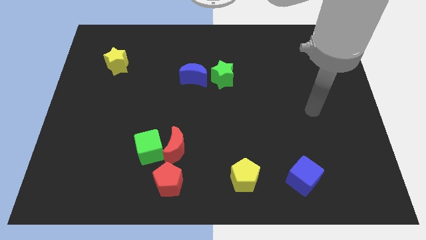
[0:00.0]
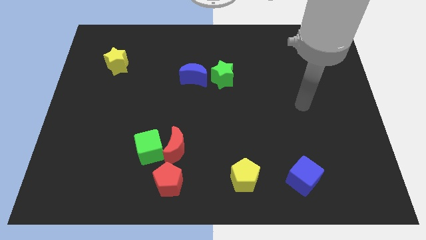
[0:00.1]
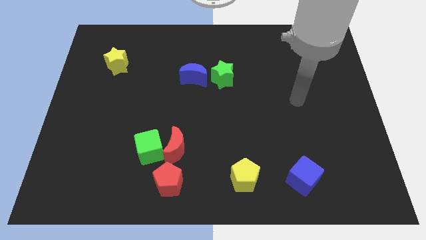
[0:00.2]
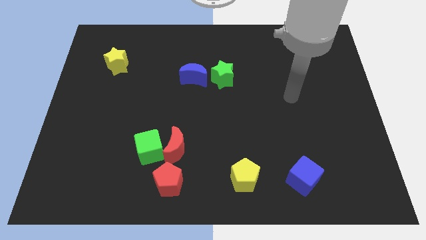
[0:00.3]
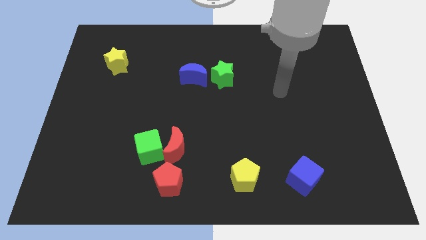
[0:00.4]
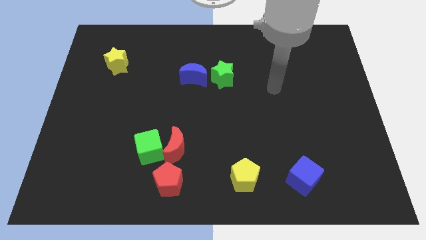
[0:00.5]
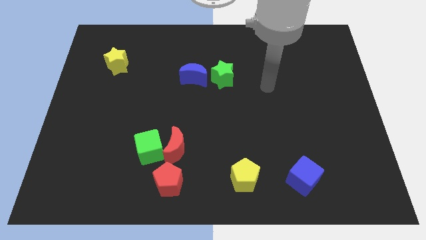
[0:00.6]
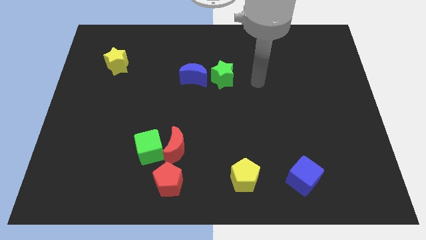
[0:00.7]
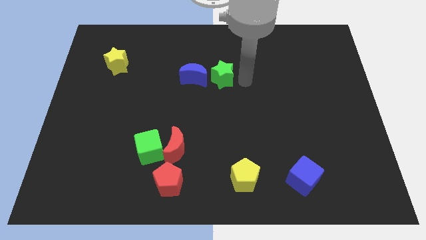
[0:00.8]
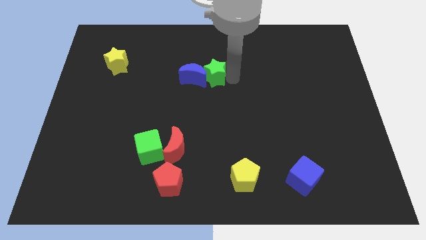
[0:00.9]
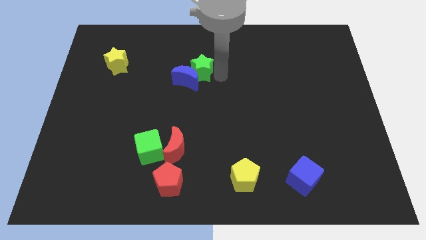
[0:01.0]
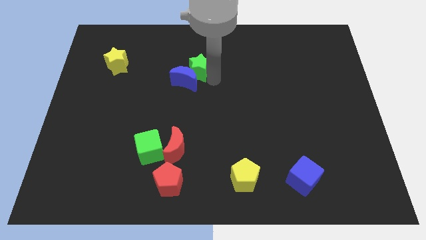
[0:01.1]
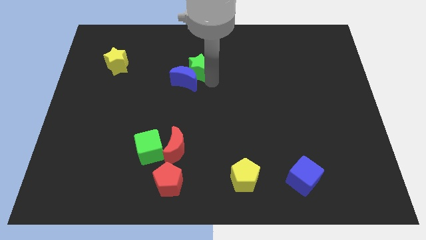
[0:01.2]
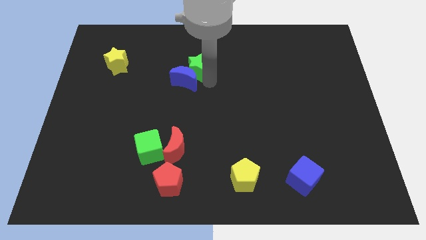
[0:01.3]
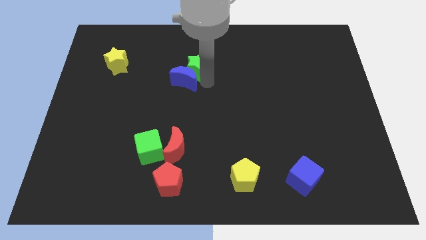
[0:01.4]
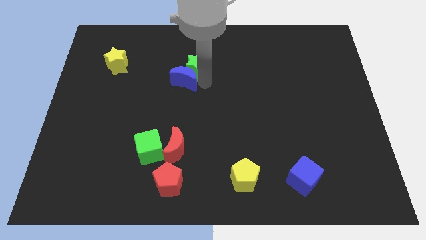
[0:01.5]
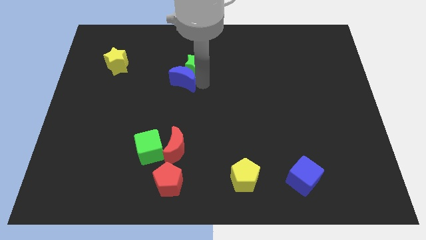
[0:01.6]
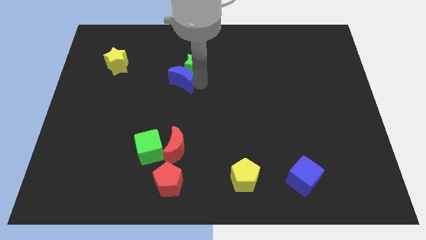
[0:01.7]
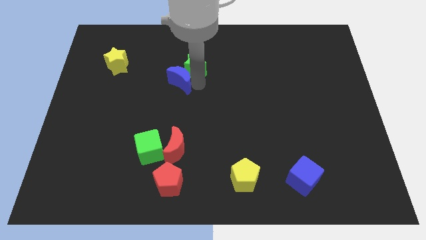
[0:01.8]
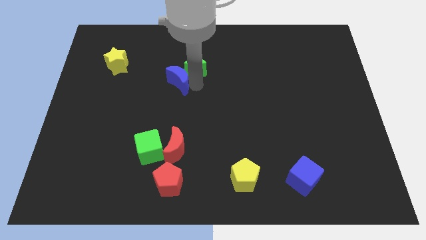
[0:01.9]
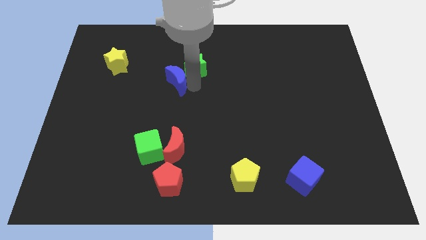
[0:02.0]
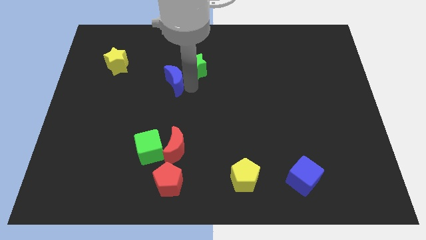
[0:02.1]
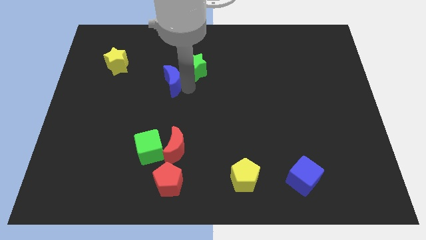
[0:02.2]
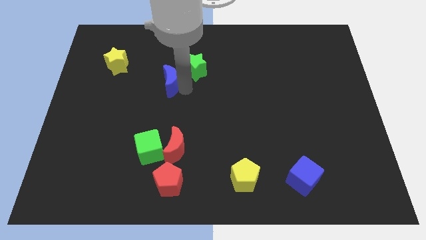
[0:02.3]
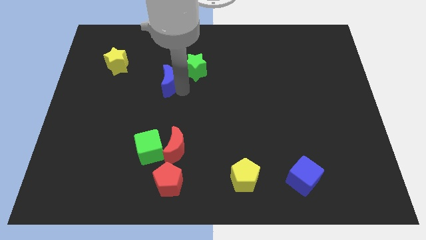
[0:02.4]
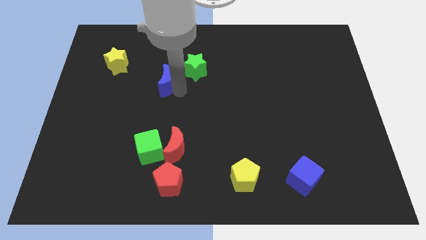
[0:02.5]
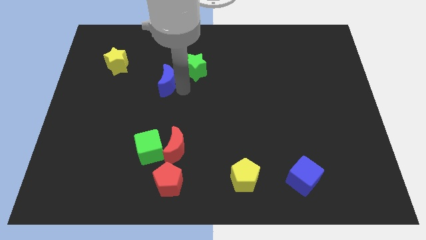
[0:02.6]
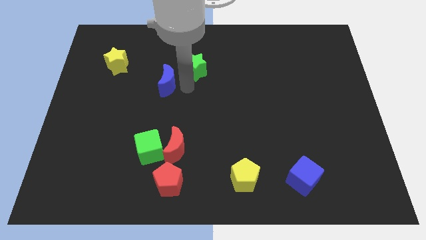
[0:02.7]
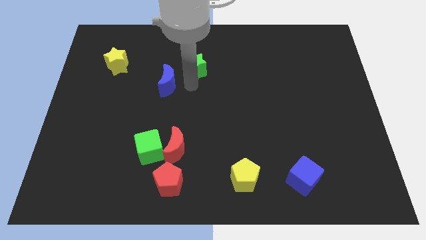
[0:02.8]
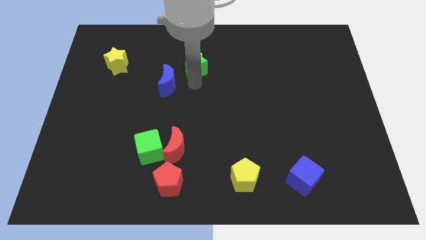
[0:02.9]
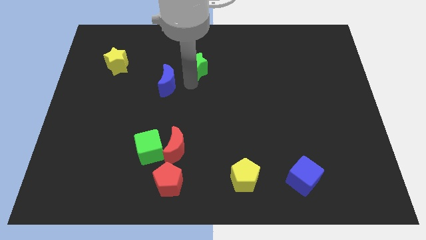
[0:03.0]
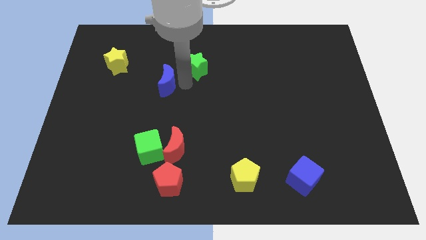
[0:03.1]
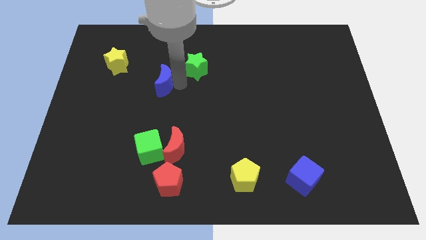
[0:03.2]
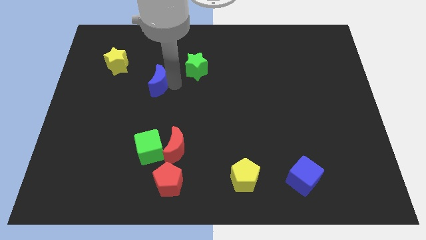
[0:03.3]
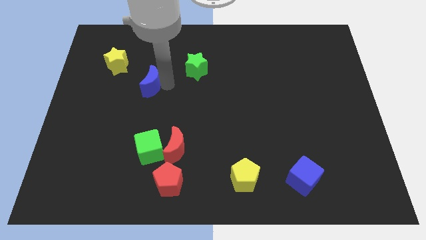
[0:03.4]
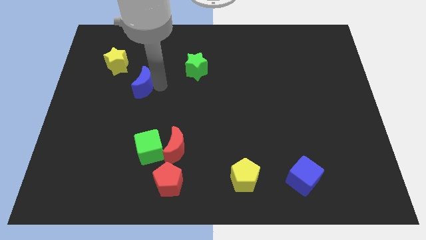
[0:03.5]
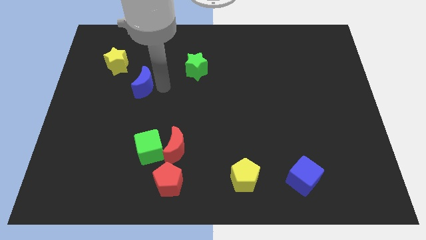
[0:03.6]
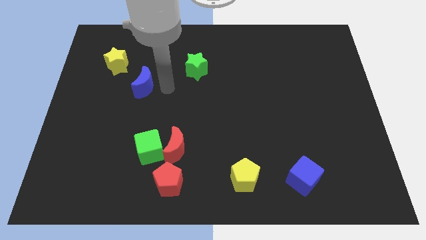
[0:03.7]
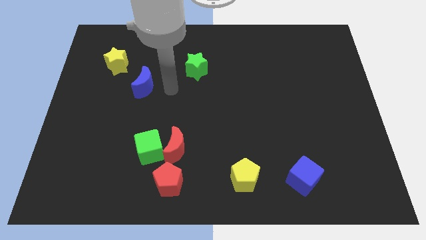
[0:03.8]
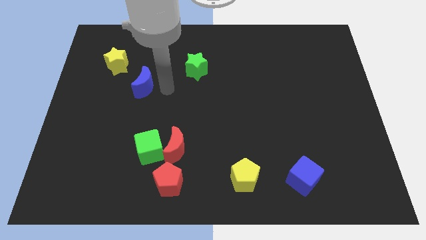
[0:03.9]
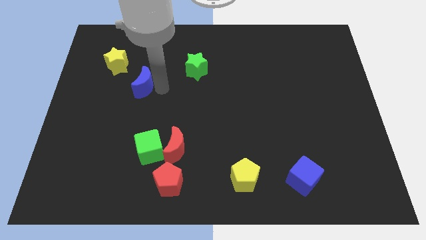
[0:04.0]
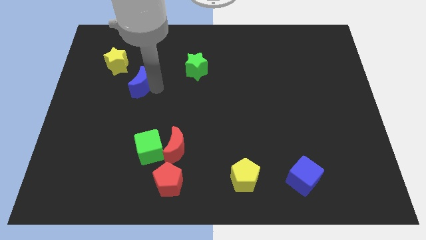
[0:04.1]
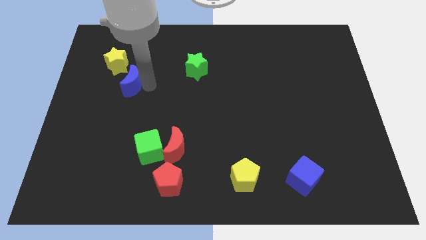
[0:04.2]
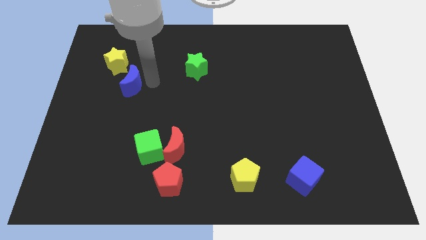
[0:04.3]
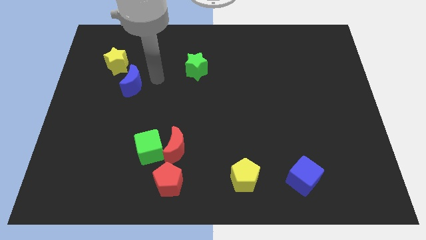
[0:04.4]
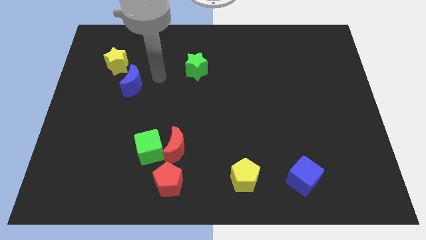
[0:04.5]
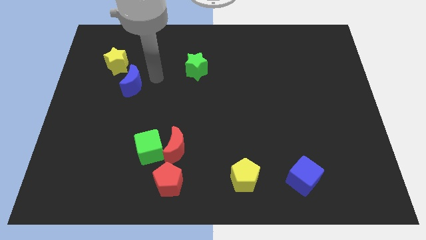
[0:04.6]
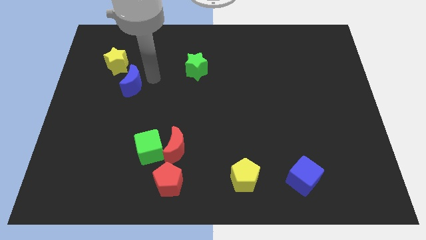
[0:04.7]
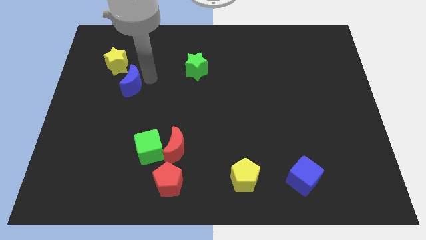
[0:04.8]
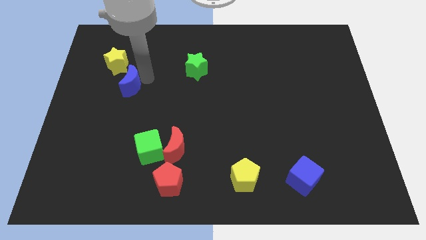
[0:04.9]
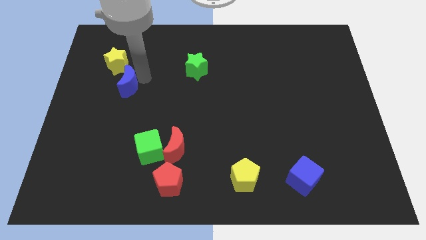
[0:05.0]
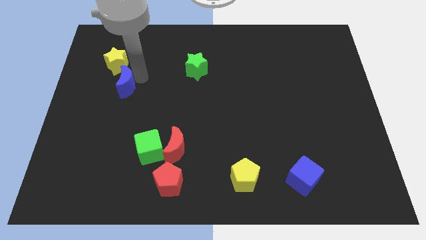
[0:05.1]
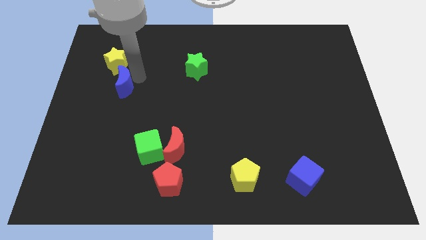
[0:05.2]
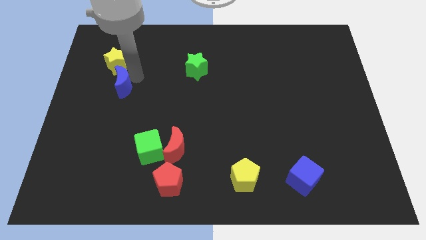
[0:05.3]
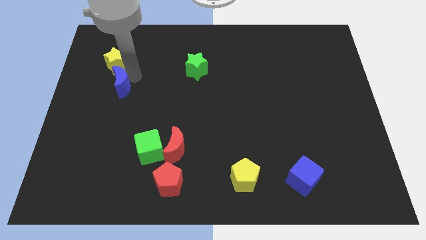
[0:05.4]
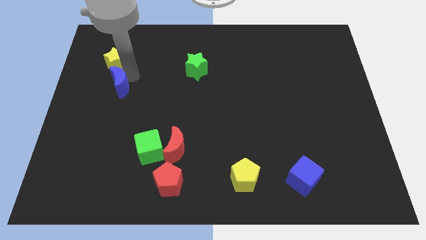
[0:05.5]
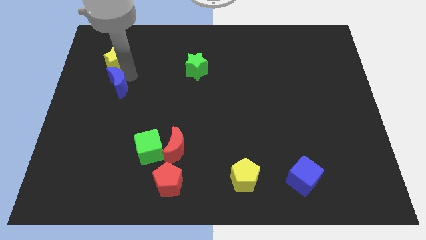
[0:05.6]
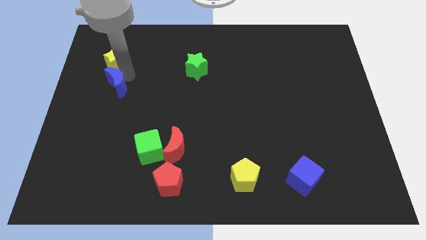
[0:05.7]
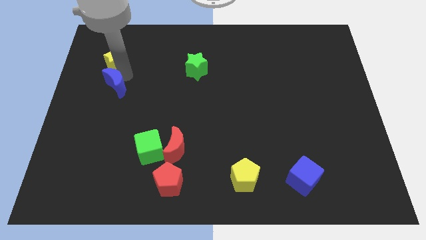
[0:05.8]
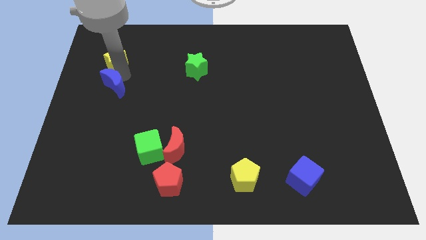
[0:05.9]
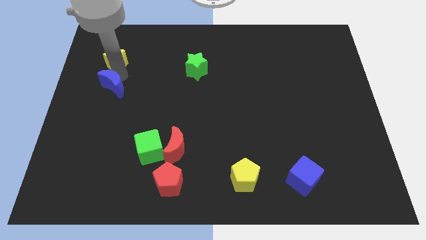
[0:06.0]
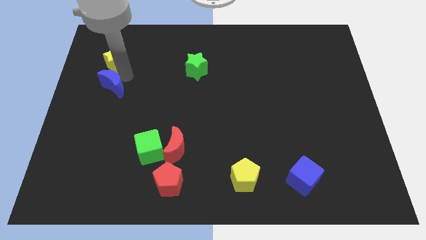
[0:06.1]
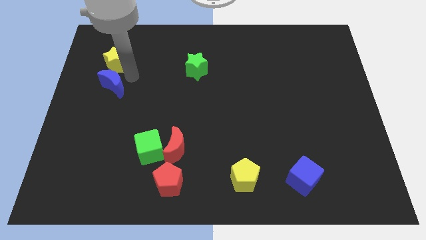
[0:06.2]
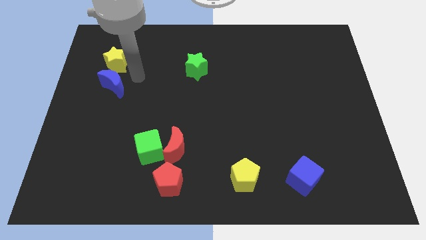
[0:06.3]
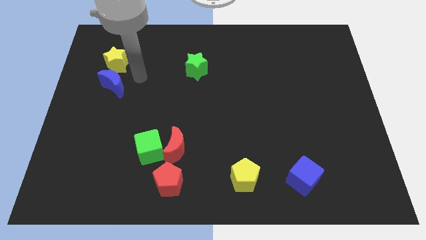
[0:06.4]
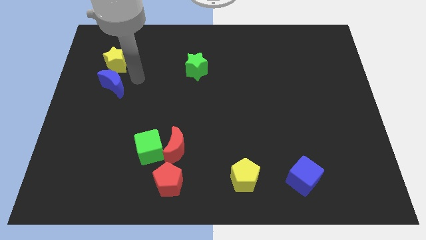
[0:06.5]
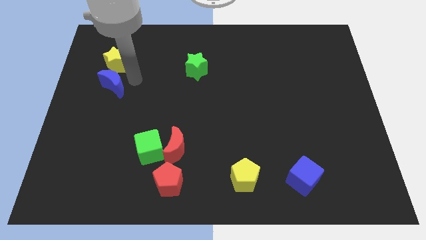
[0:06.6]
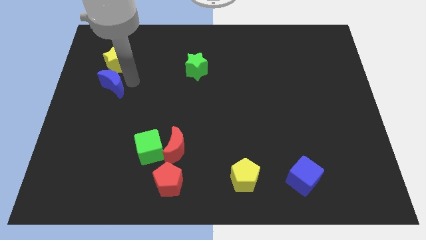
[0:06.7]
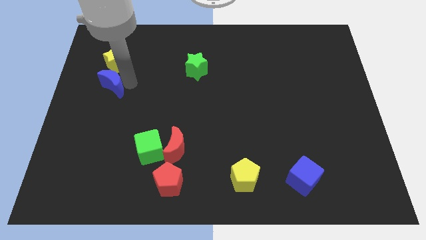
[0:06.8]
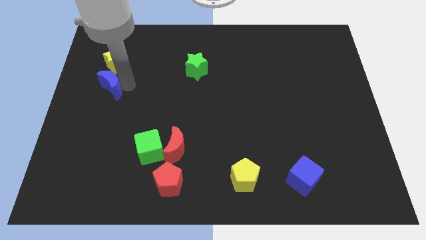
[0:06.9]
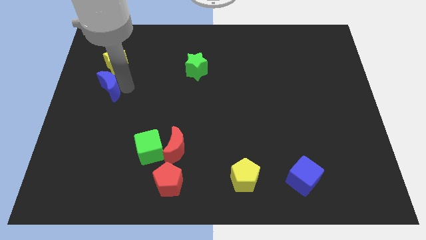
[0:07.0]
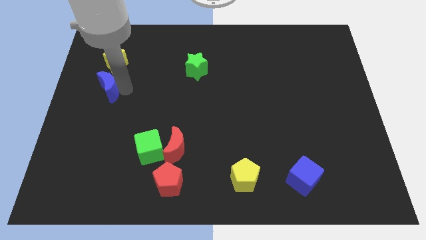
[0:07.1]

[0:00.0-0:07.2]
move the blue moon to the center left
